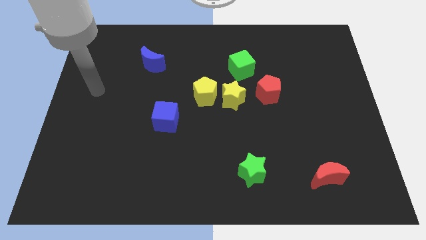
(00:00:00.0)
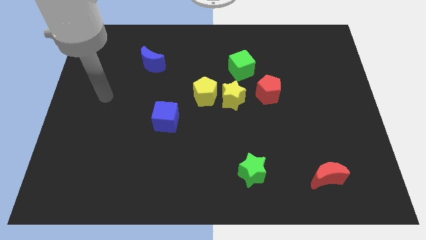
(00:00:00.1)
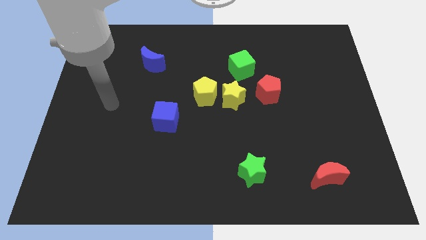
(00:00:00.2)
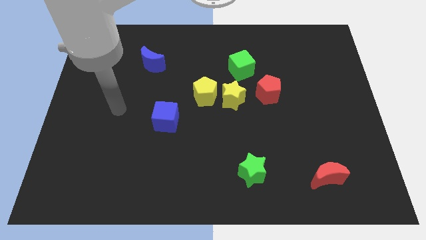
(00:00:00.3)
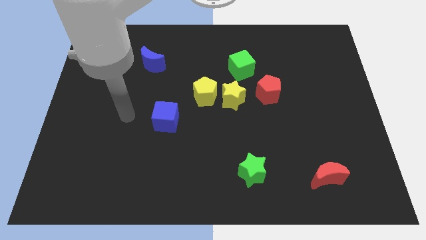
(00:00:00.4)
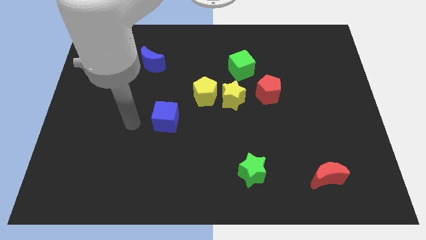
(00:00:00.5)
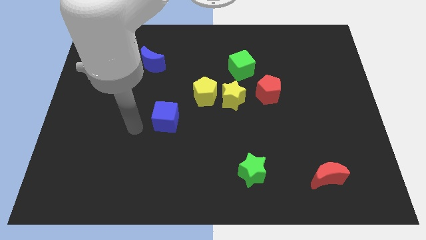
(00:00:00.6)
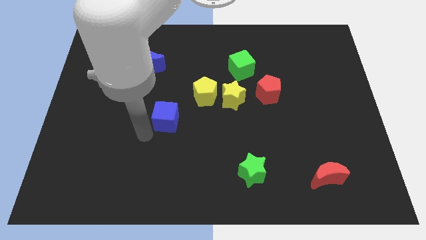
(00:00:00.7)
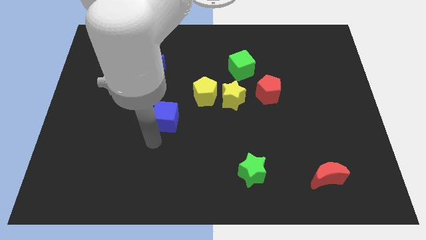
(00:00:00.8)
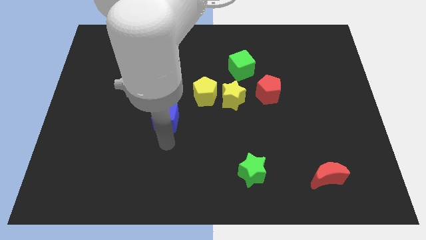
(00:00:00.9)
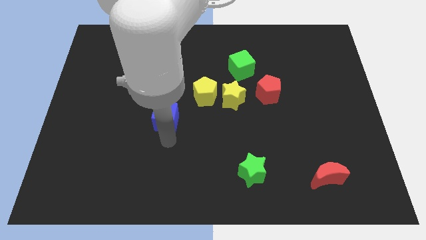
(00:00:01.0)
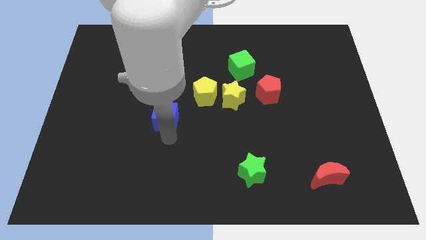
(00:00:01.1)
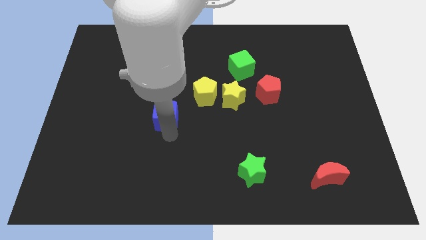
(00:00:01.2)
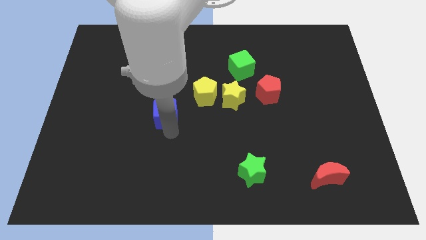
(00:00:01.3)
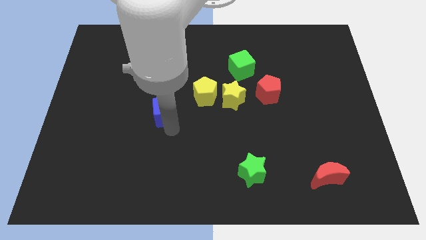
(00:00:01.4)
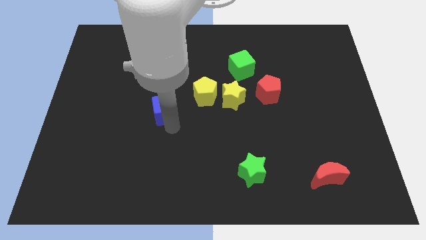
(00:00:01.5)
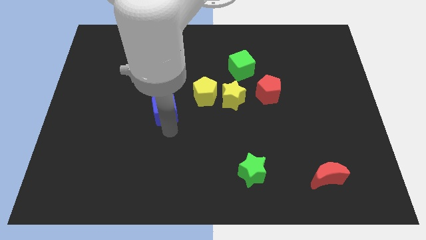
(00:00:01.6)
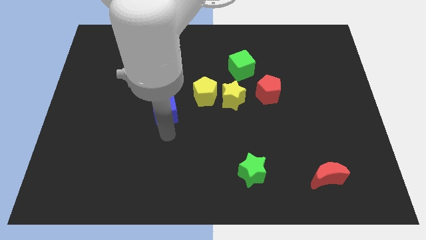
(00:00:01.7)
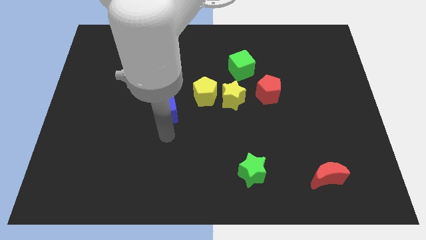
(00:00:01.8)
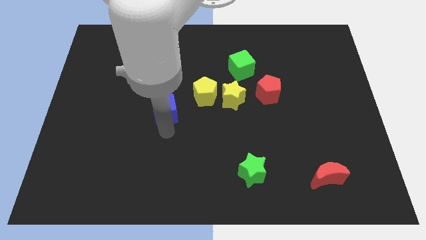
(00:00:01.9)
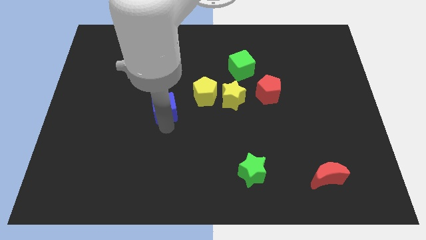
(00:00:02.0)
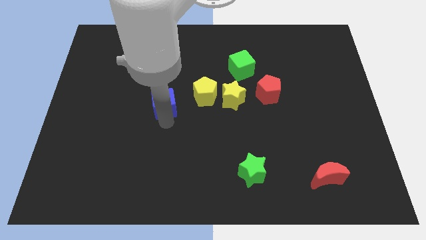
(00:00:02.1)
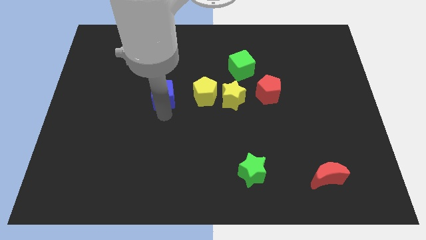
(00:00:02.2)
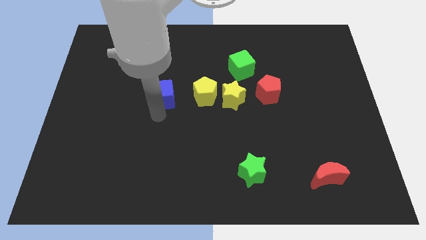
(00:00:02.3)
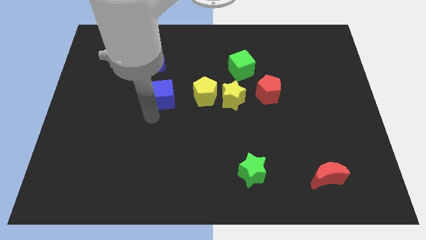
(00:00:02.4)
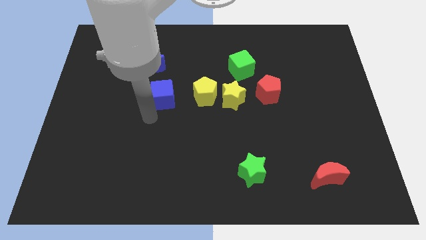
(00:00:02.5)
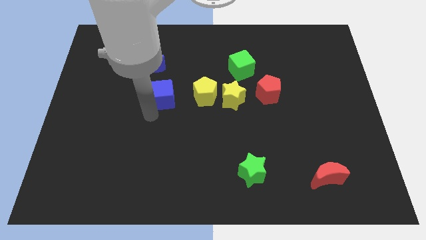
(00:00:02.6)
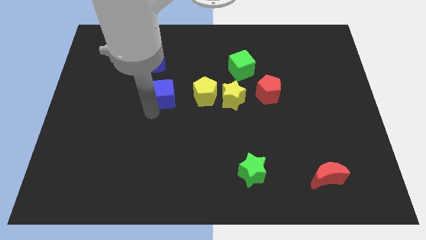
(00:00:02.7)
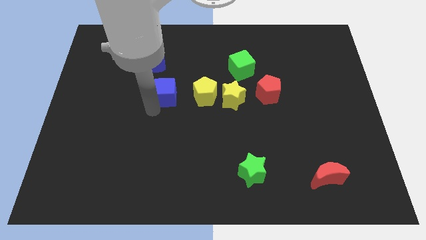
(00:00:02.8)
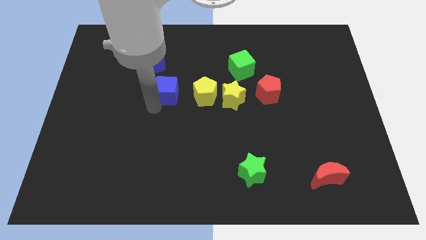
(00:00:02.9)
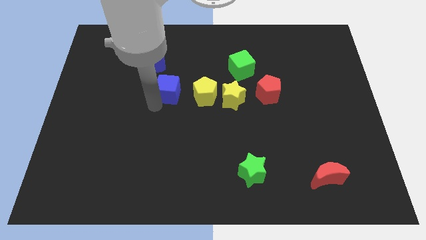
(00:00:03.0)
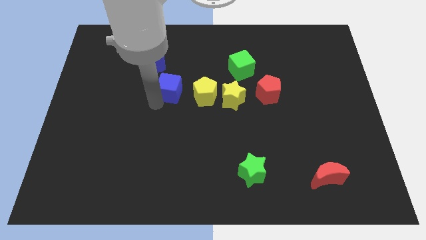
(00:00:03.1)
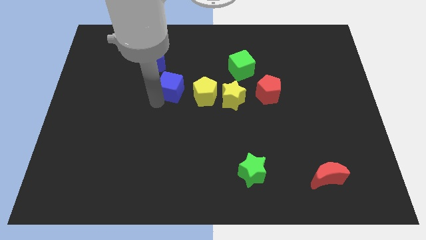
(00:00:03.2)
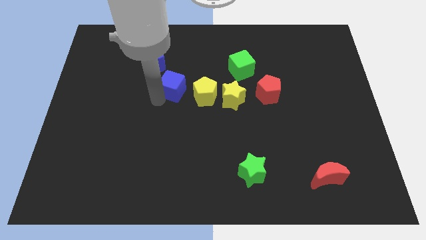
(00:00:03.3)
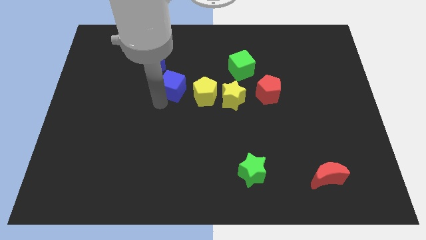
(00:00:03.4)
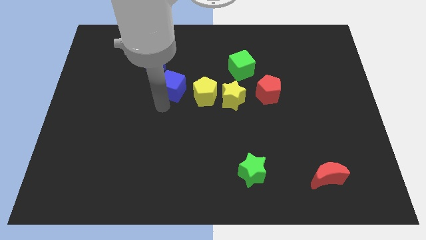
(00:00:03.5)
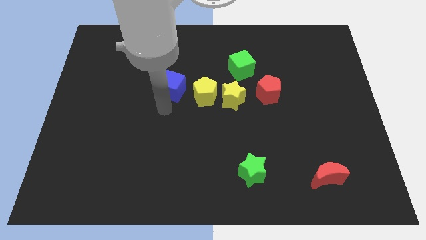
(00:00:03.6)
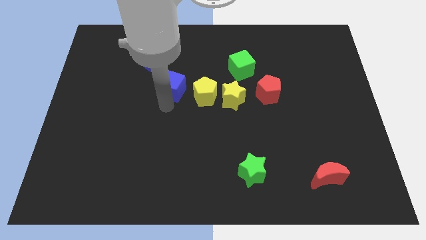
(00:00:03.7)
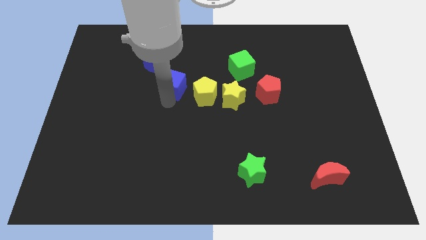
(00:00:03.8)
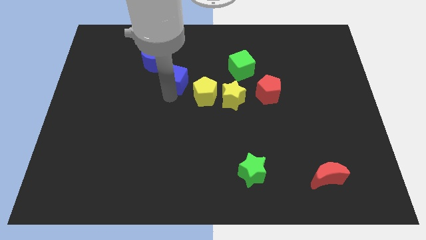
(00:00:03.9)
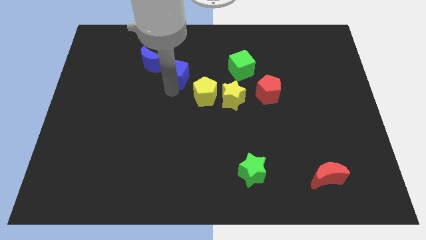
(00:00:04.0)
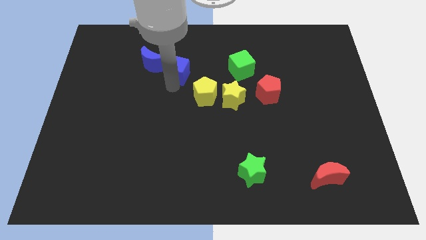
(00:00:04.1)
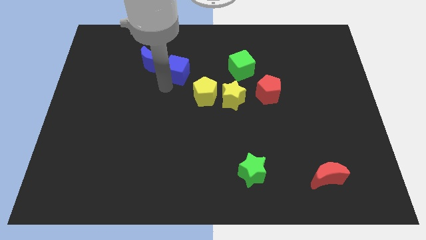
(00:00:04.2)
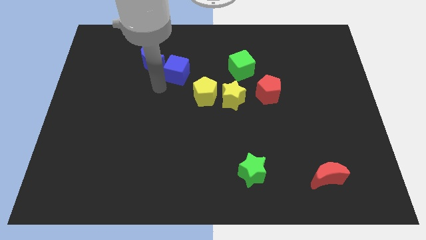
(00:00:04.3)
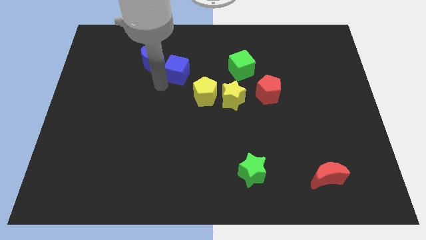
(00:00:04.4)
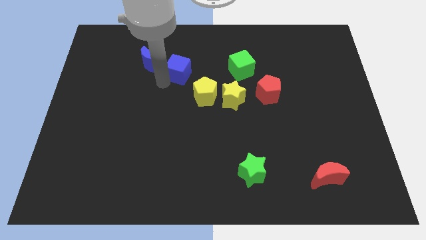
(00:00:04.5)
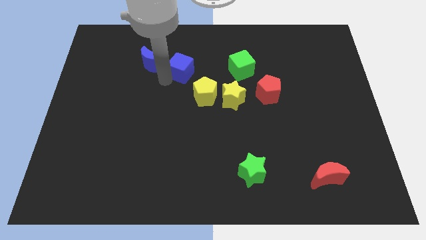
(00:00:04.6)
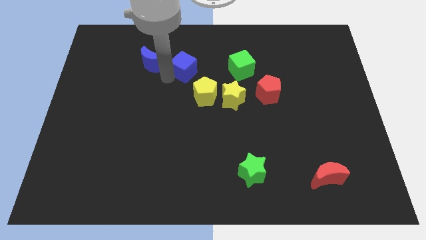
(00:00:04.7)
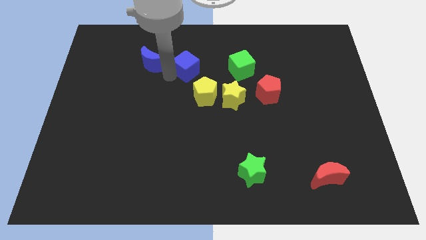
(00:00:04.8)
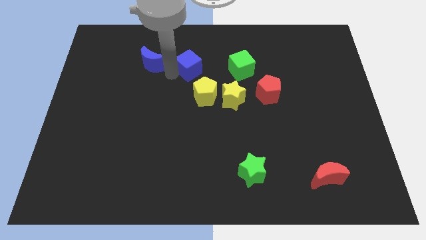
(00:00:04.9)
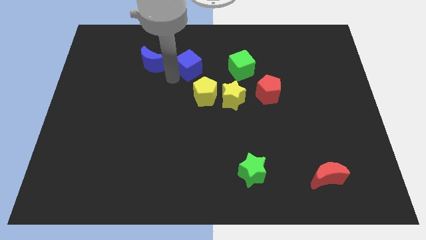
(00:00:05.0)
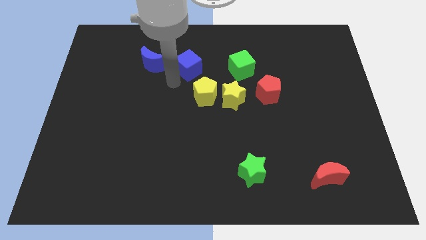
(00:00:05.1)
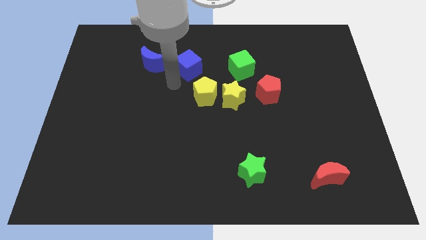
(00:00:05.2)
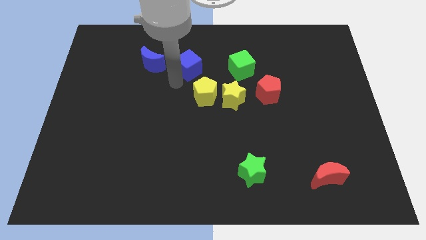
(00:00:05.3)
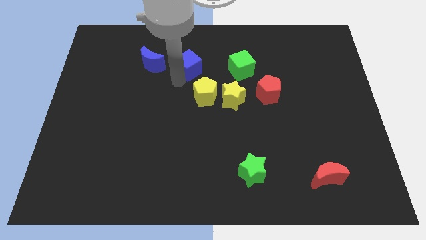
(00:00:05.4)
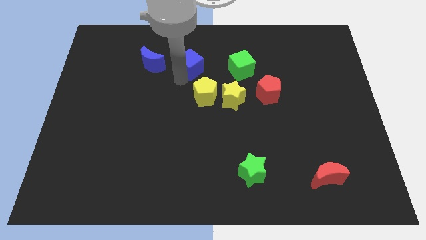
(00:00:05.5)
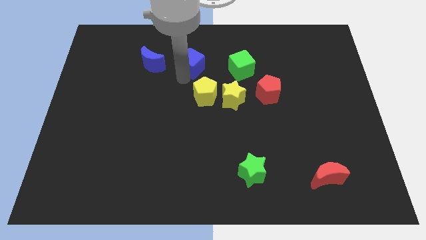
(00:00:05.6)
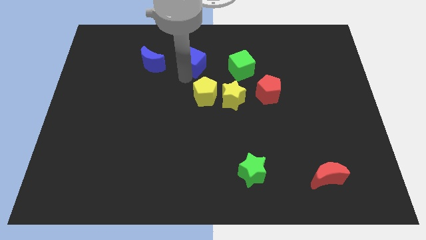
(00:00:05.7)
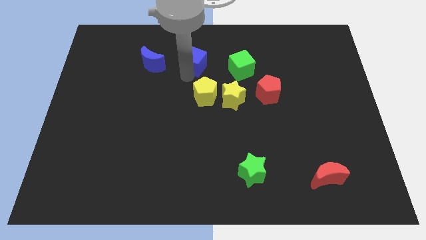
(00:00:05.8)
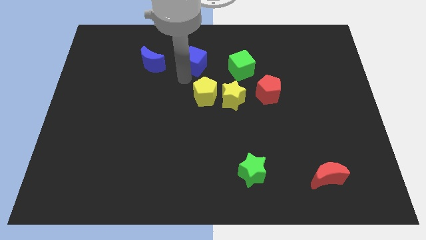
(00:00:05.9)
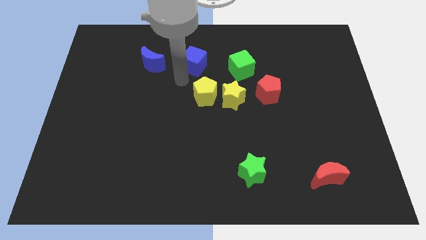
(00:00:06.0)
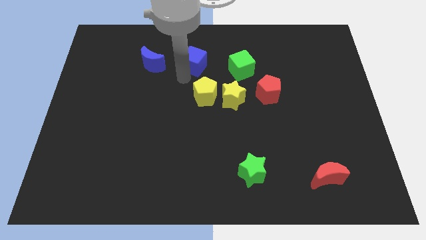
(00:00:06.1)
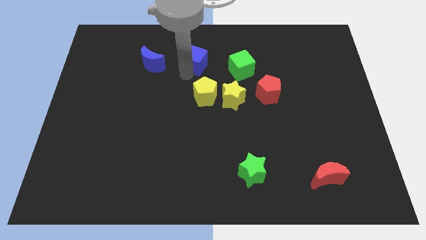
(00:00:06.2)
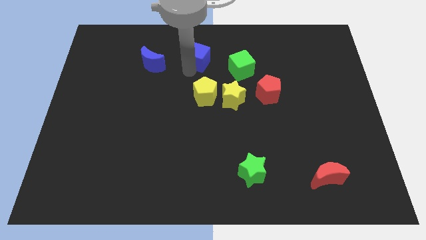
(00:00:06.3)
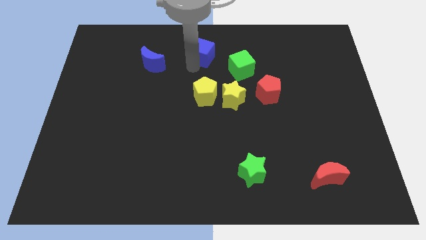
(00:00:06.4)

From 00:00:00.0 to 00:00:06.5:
put the blue cube to the towards your base
